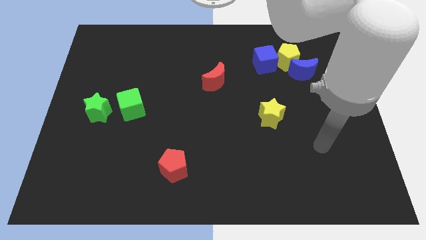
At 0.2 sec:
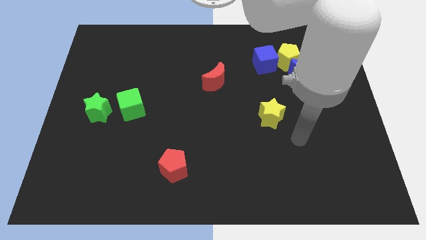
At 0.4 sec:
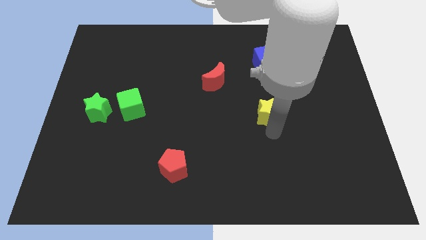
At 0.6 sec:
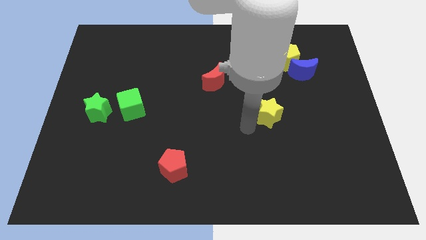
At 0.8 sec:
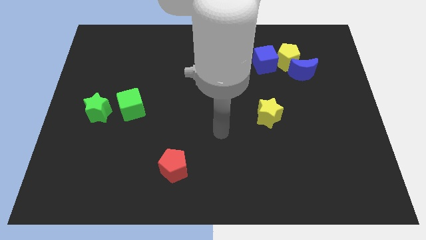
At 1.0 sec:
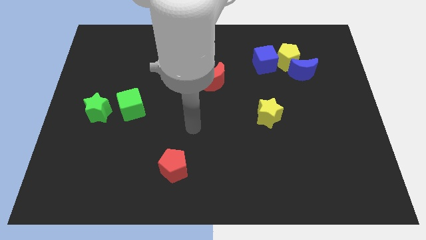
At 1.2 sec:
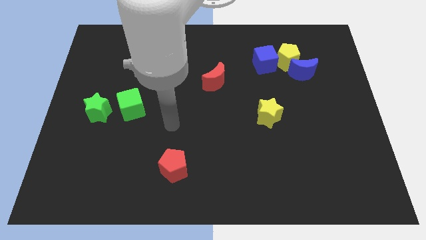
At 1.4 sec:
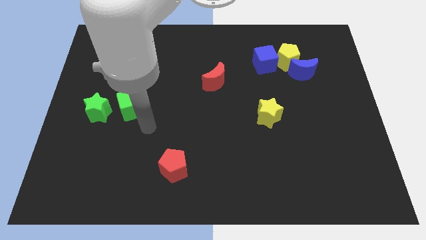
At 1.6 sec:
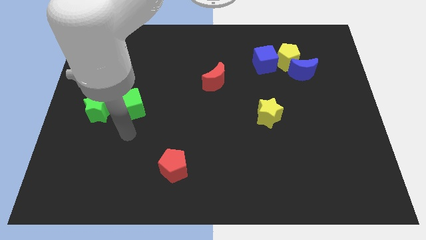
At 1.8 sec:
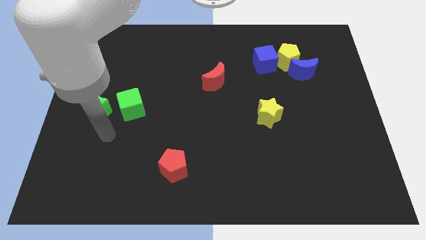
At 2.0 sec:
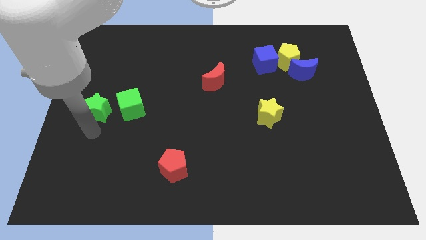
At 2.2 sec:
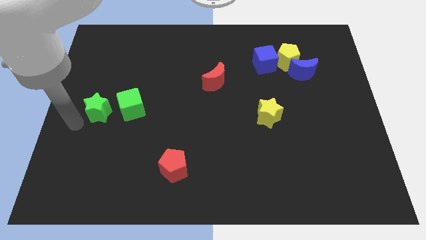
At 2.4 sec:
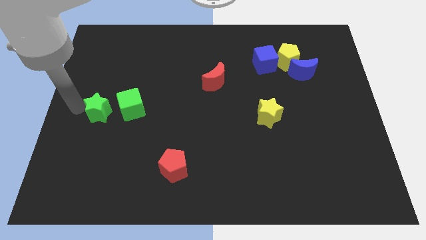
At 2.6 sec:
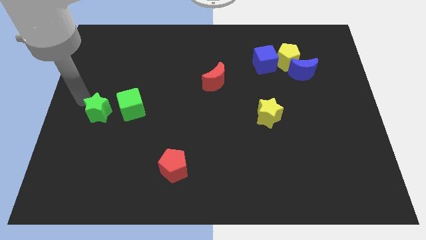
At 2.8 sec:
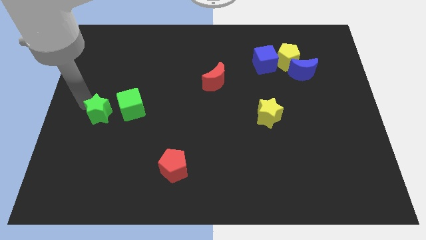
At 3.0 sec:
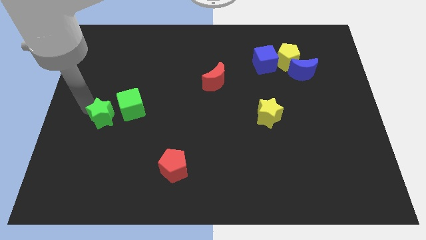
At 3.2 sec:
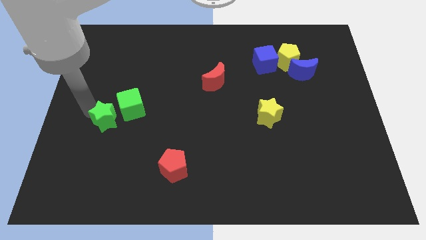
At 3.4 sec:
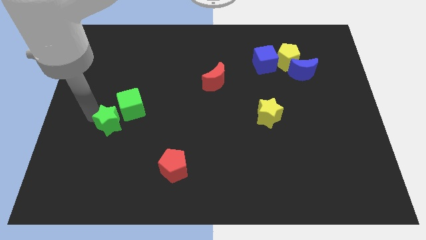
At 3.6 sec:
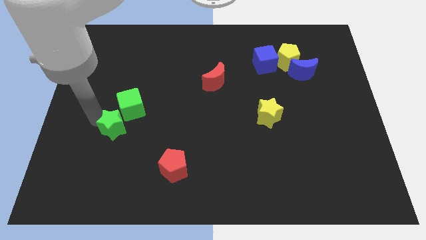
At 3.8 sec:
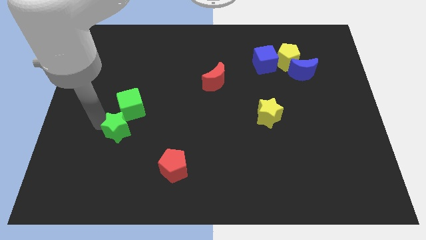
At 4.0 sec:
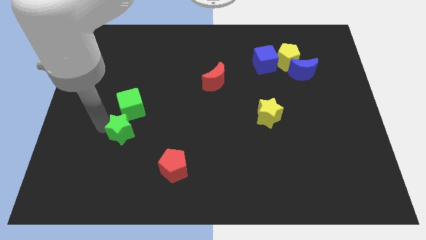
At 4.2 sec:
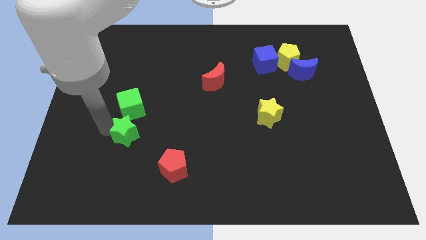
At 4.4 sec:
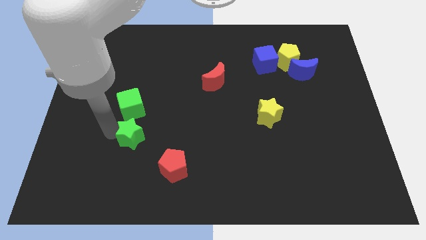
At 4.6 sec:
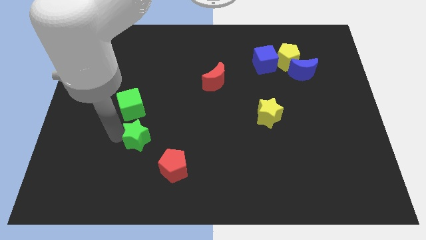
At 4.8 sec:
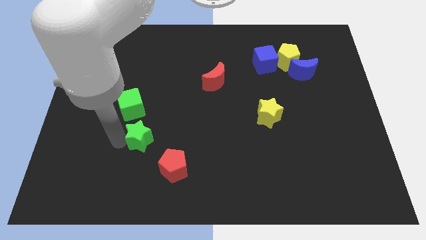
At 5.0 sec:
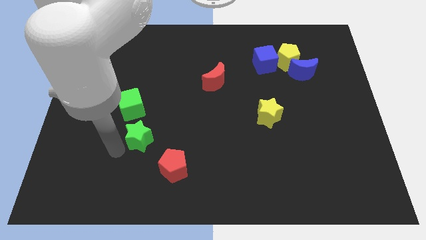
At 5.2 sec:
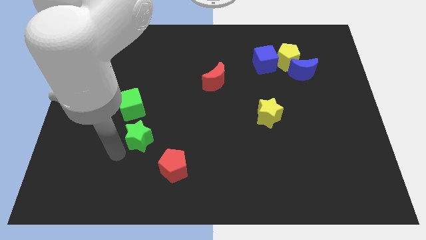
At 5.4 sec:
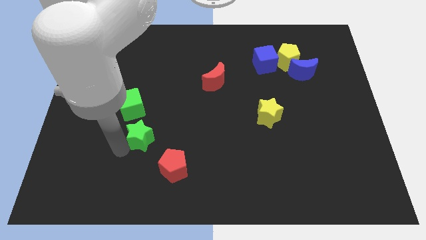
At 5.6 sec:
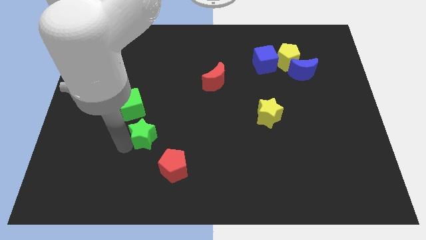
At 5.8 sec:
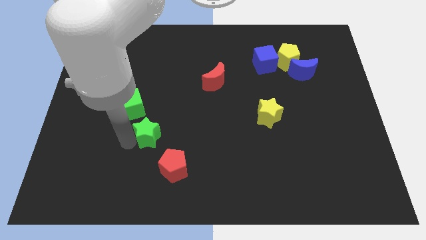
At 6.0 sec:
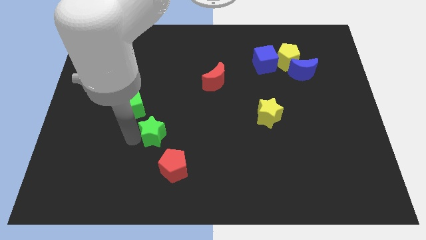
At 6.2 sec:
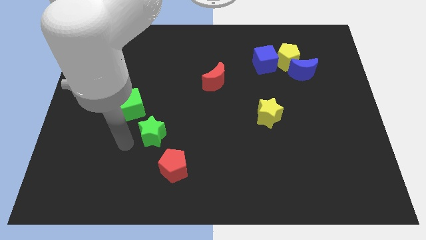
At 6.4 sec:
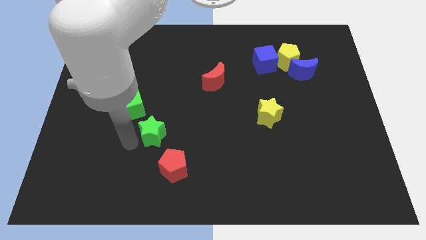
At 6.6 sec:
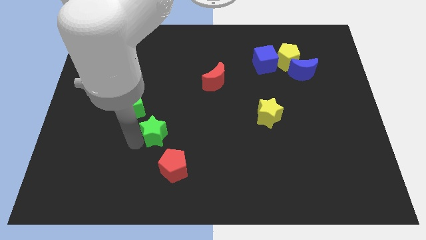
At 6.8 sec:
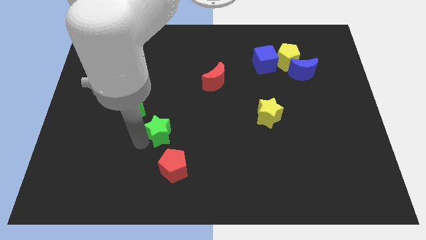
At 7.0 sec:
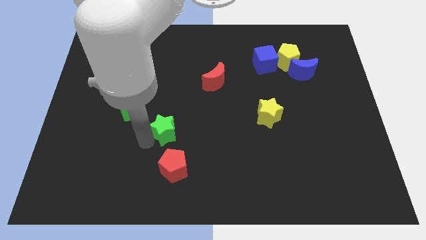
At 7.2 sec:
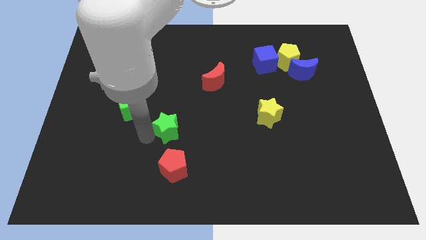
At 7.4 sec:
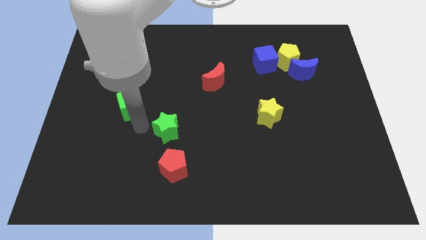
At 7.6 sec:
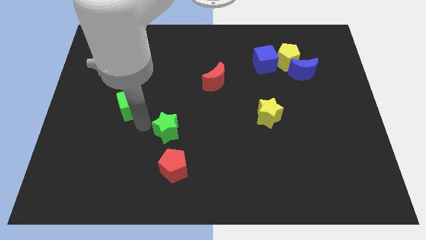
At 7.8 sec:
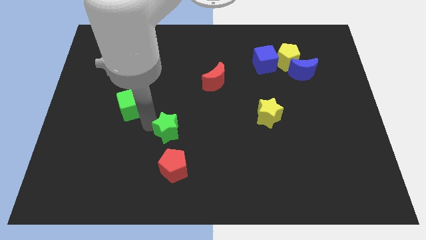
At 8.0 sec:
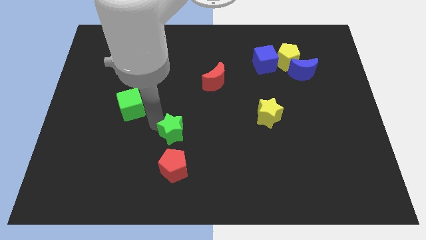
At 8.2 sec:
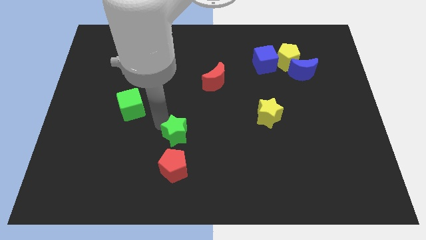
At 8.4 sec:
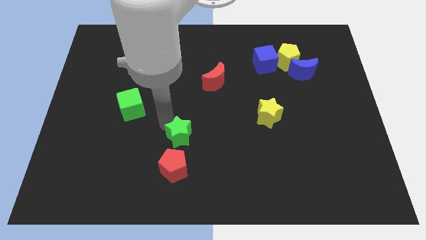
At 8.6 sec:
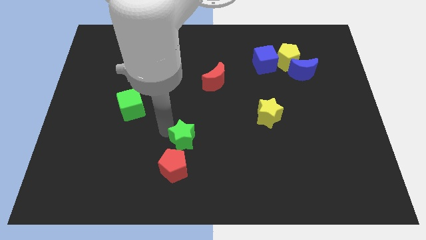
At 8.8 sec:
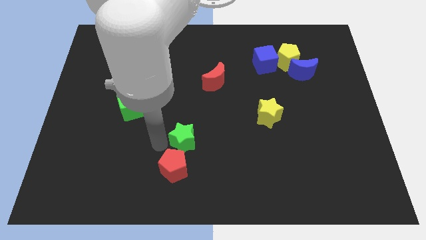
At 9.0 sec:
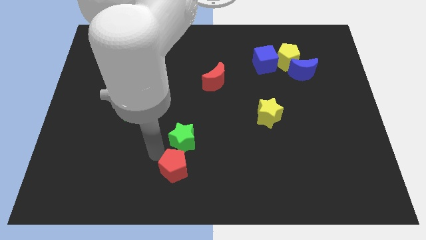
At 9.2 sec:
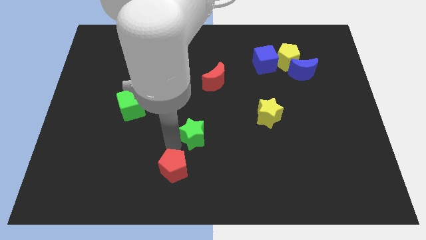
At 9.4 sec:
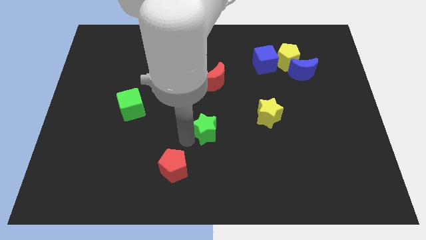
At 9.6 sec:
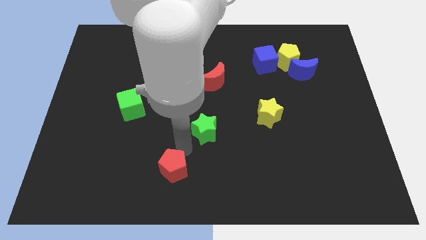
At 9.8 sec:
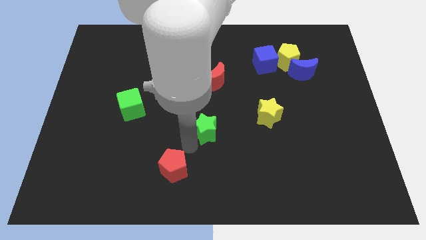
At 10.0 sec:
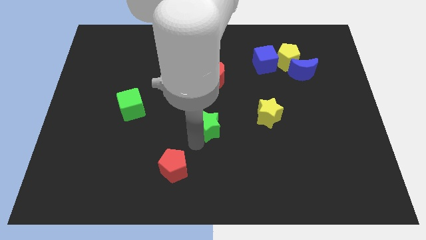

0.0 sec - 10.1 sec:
push the green star to the left side of the yellow star

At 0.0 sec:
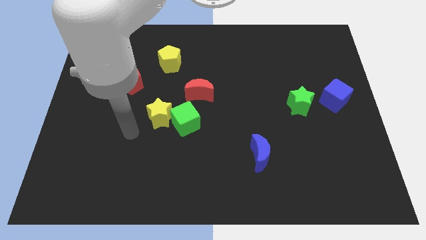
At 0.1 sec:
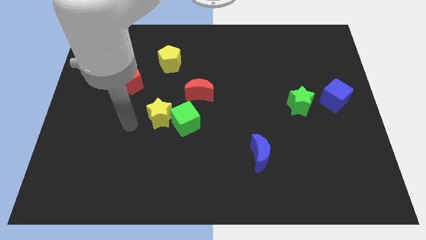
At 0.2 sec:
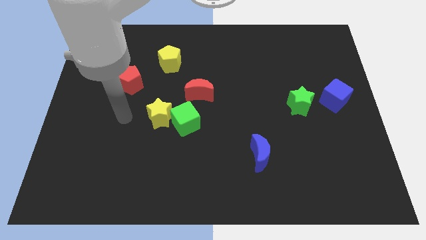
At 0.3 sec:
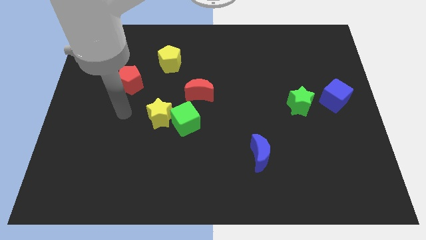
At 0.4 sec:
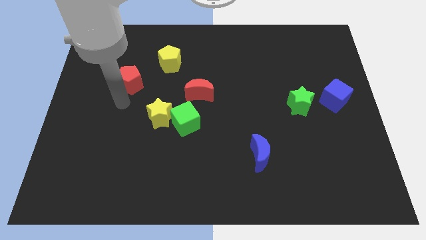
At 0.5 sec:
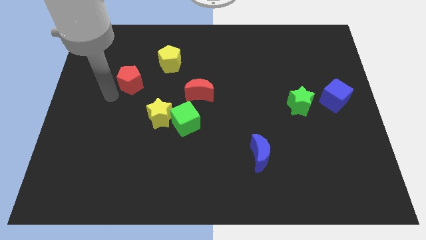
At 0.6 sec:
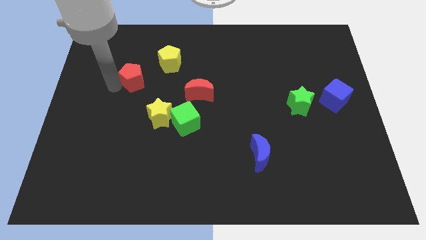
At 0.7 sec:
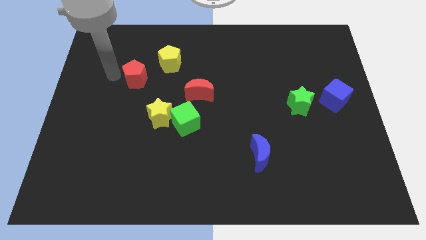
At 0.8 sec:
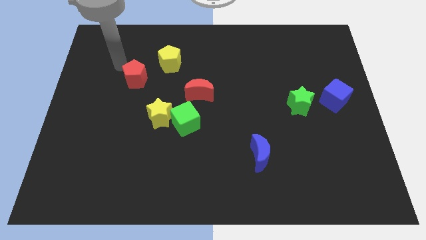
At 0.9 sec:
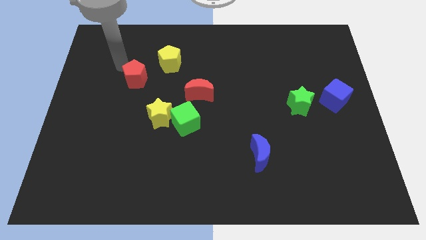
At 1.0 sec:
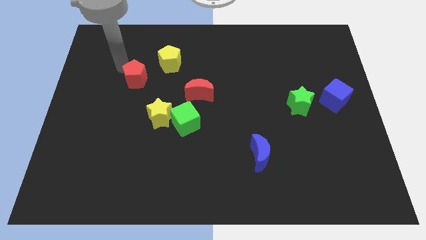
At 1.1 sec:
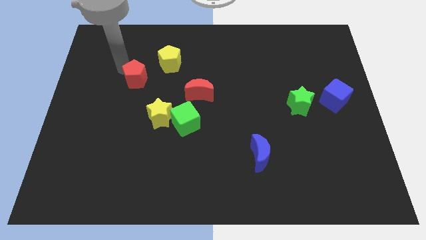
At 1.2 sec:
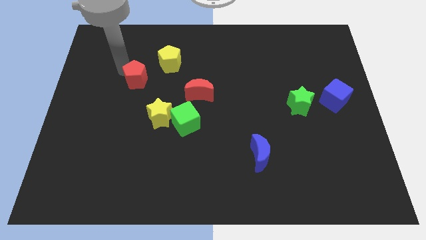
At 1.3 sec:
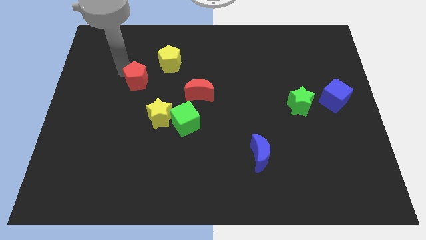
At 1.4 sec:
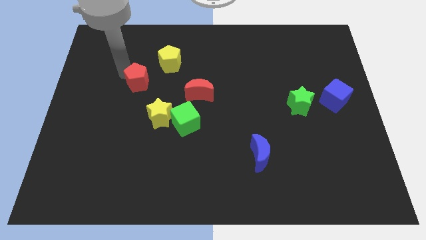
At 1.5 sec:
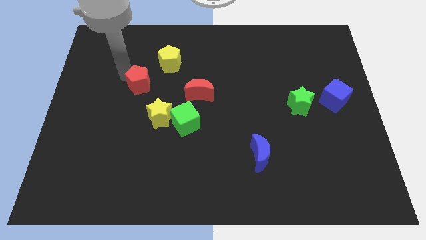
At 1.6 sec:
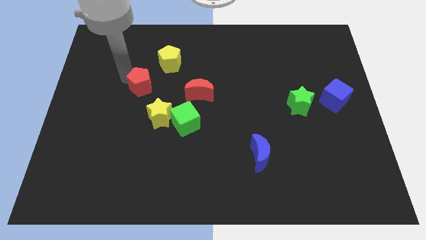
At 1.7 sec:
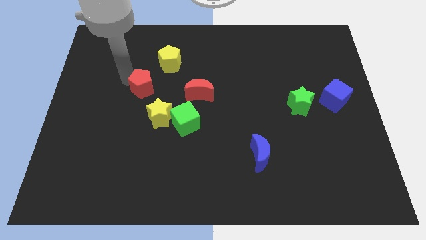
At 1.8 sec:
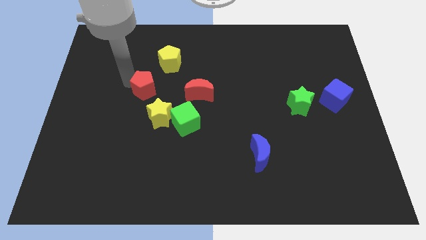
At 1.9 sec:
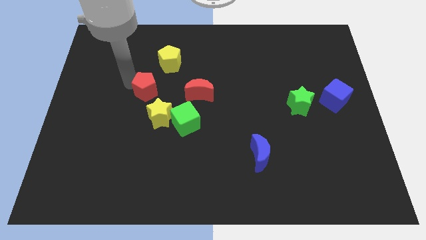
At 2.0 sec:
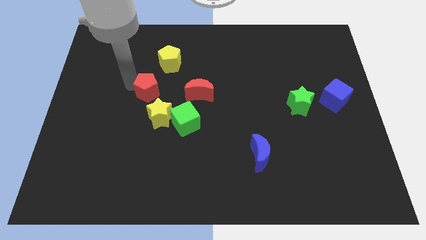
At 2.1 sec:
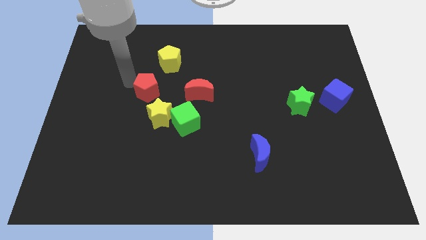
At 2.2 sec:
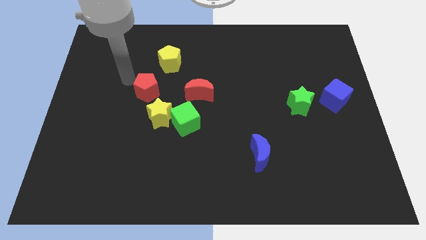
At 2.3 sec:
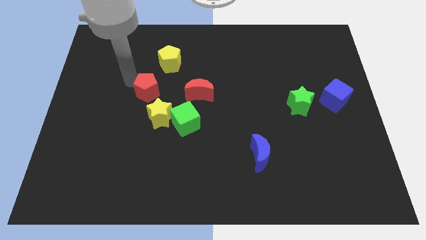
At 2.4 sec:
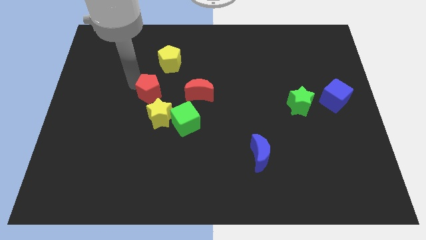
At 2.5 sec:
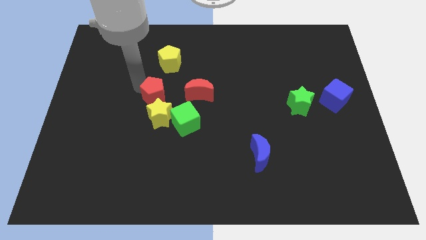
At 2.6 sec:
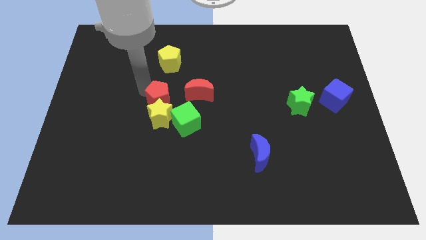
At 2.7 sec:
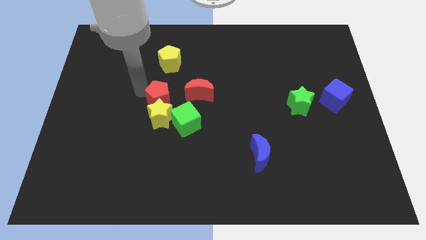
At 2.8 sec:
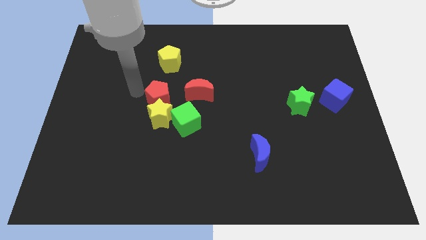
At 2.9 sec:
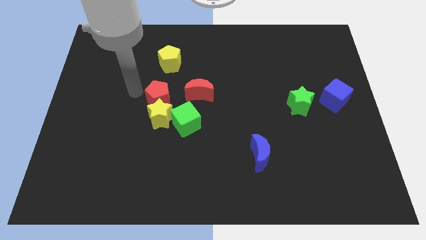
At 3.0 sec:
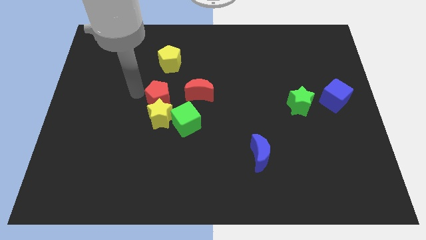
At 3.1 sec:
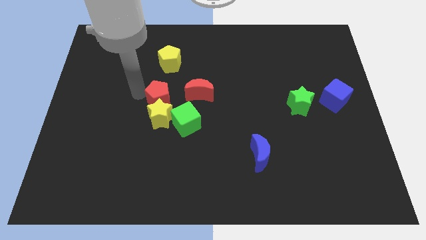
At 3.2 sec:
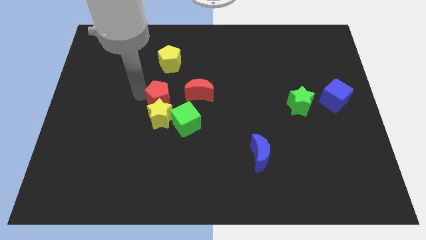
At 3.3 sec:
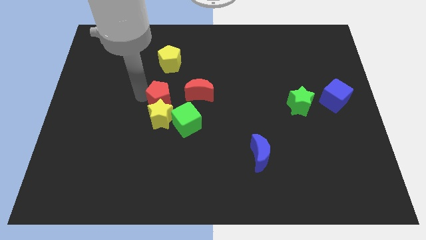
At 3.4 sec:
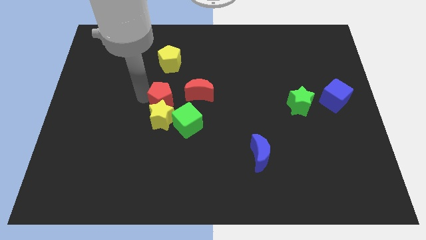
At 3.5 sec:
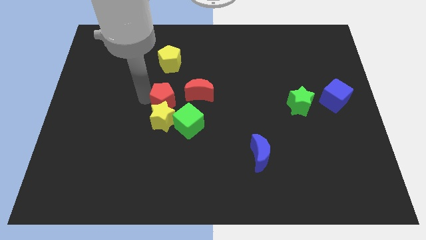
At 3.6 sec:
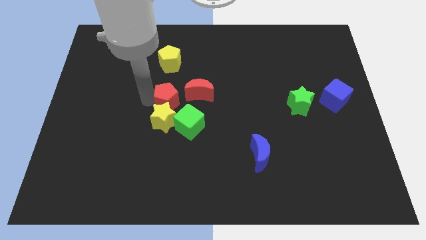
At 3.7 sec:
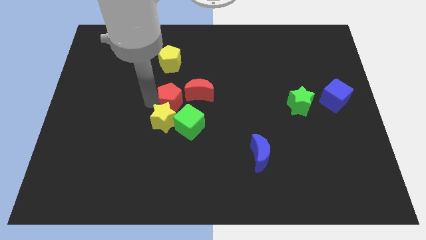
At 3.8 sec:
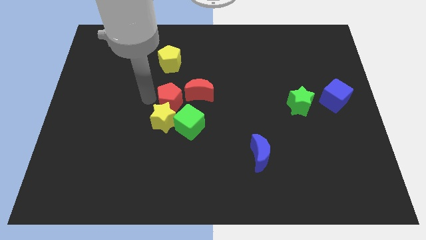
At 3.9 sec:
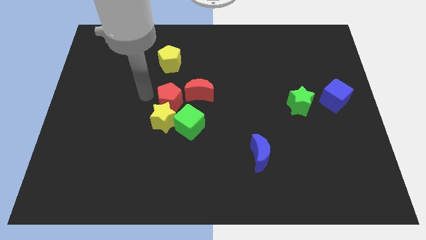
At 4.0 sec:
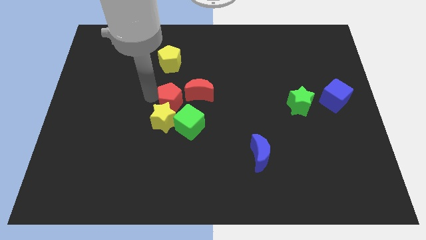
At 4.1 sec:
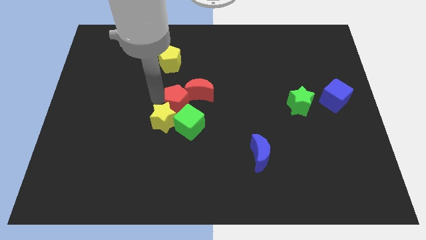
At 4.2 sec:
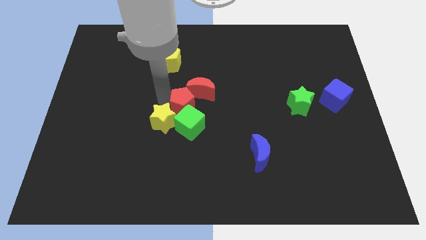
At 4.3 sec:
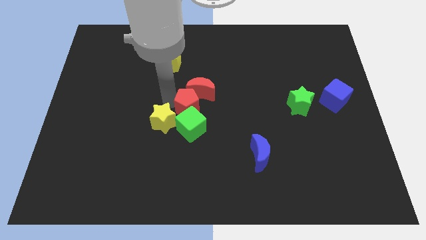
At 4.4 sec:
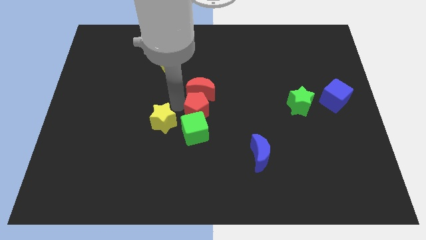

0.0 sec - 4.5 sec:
put the red pentagon to the bottom right of the red moon
